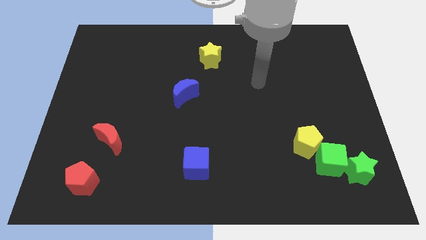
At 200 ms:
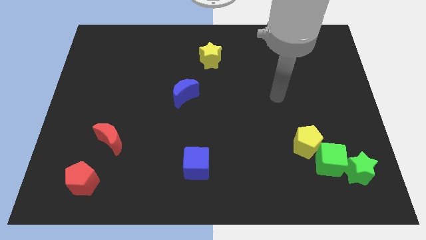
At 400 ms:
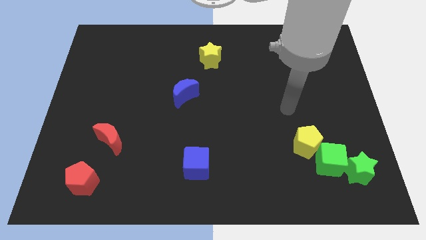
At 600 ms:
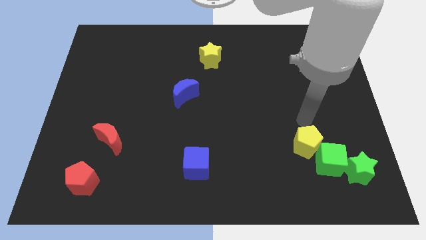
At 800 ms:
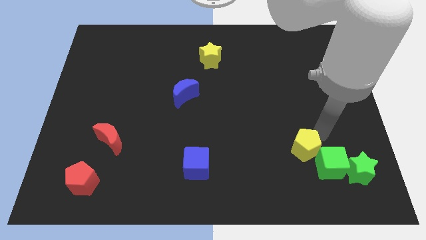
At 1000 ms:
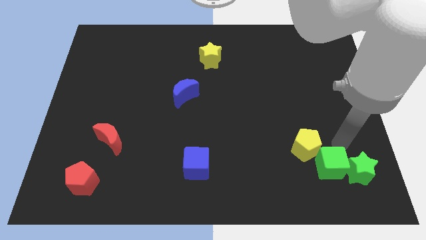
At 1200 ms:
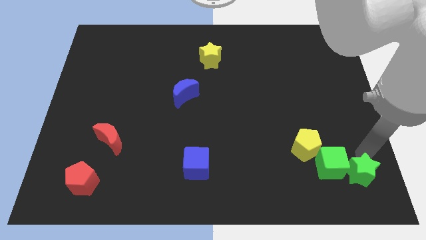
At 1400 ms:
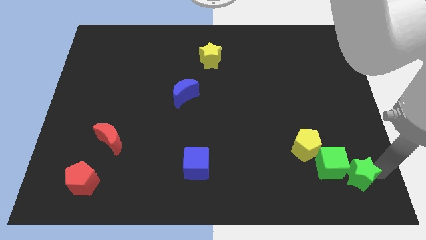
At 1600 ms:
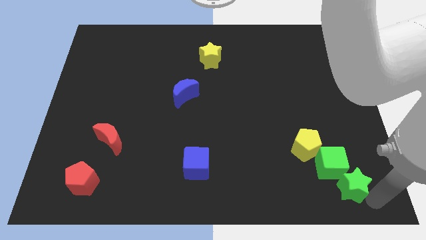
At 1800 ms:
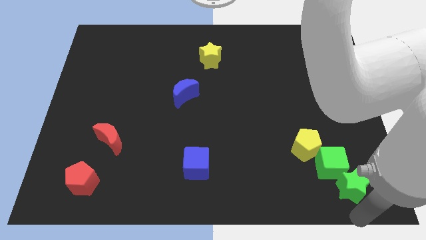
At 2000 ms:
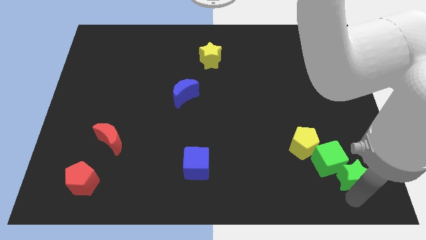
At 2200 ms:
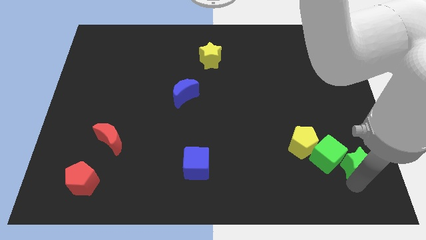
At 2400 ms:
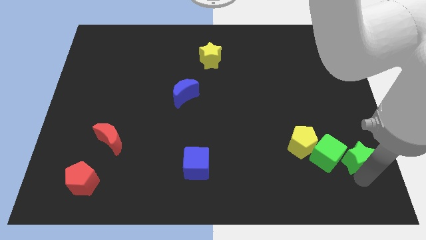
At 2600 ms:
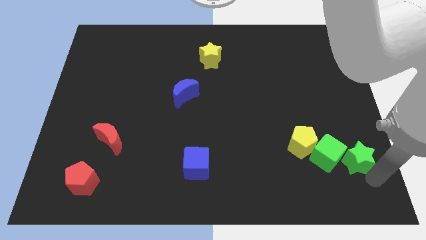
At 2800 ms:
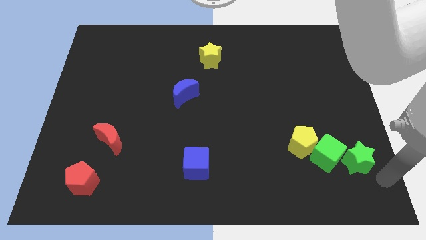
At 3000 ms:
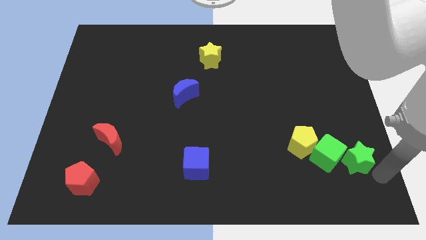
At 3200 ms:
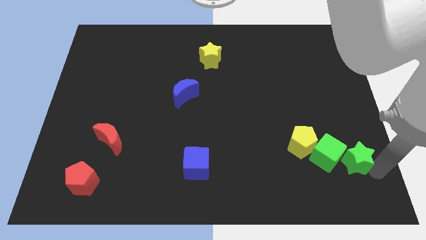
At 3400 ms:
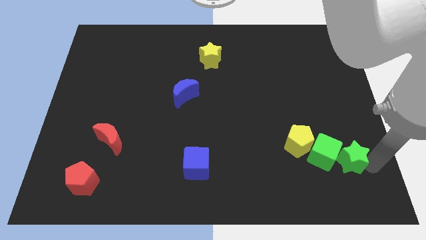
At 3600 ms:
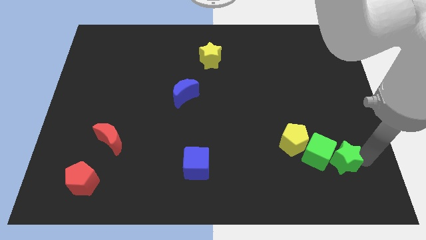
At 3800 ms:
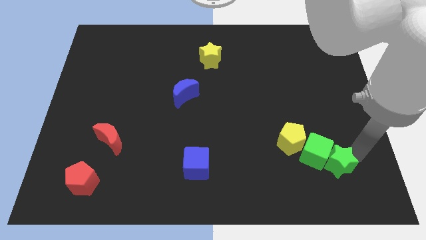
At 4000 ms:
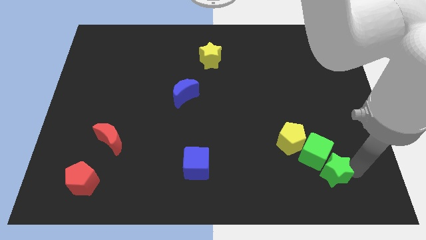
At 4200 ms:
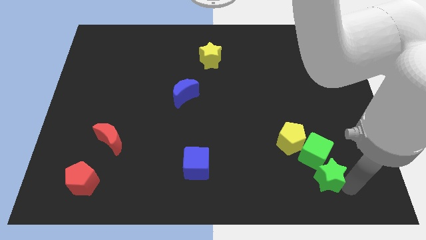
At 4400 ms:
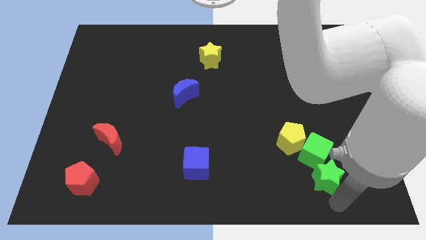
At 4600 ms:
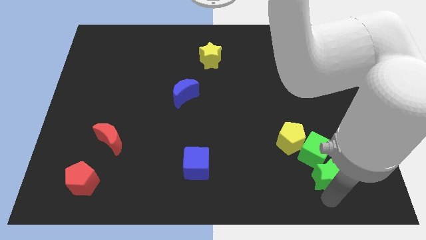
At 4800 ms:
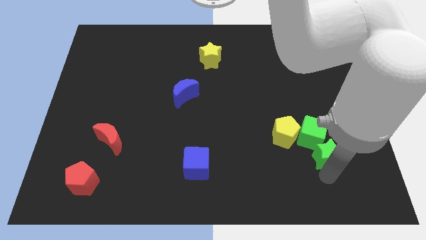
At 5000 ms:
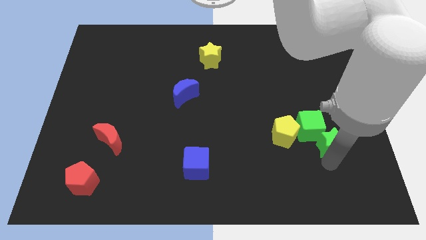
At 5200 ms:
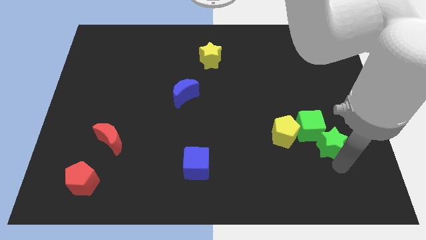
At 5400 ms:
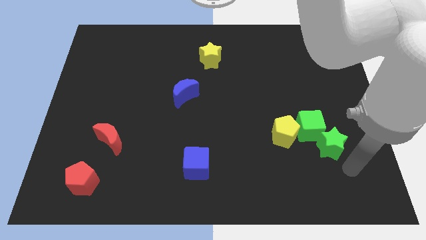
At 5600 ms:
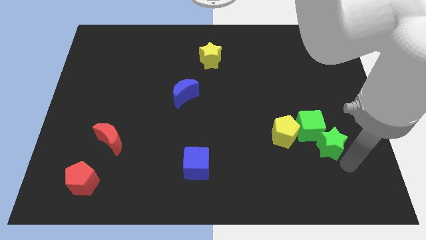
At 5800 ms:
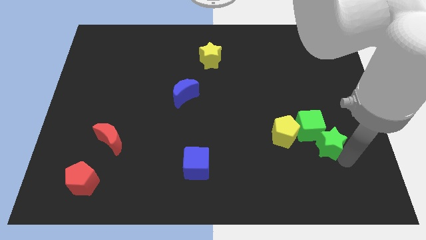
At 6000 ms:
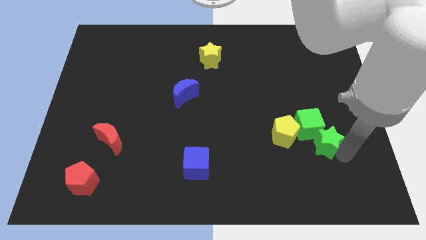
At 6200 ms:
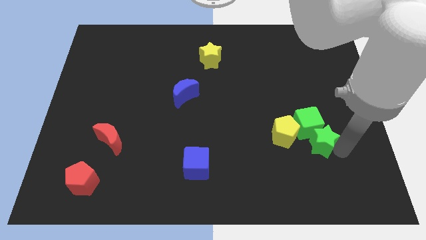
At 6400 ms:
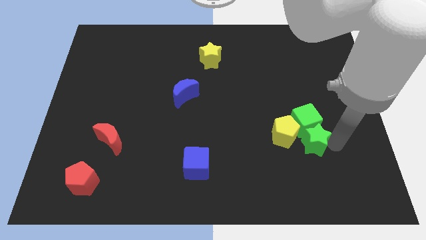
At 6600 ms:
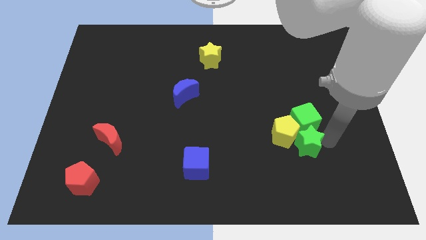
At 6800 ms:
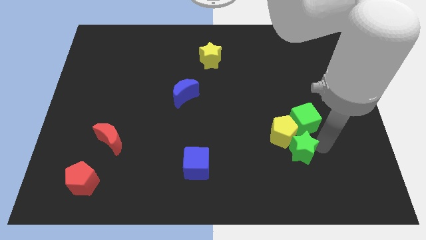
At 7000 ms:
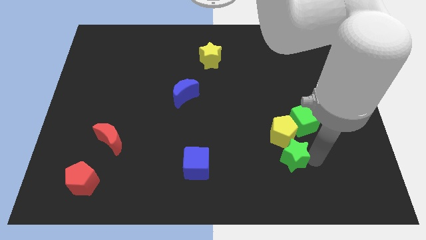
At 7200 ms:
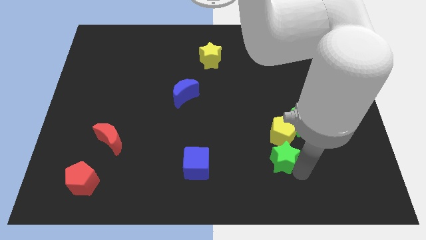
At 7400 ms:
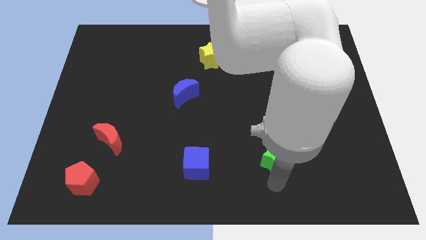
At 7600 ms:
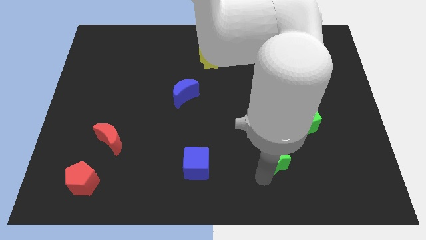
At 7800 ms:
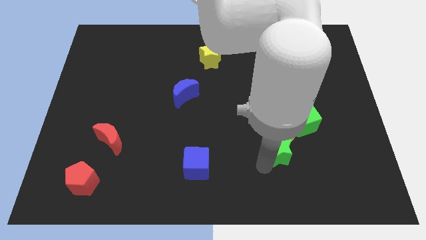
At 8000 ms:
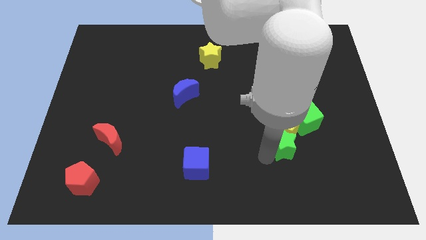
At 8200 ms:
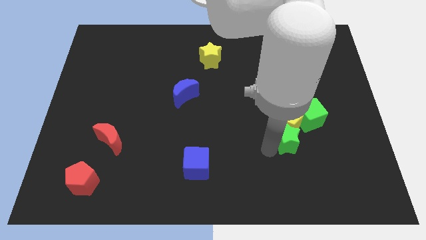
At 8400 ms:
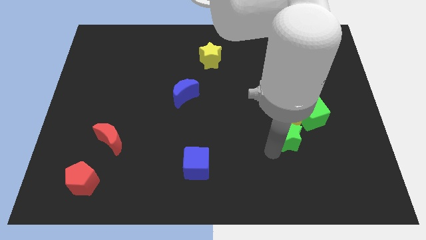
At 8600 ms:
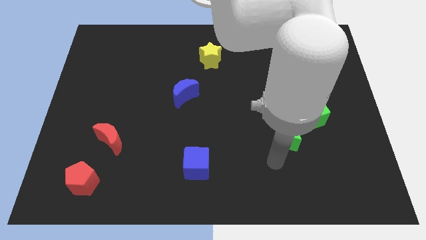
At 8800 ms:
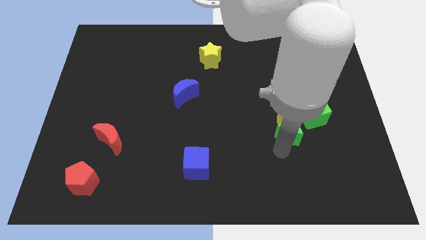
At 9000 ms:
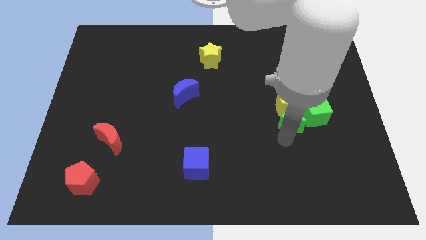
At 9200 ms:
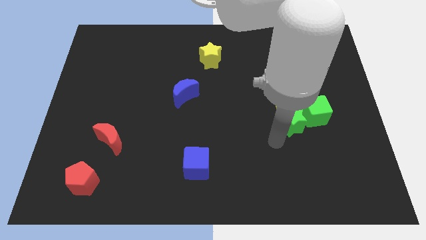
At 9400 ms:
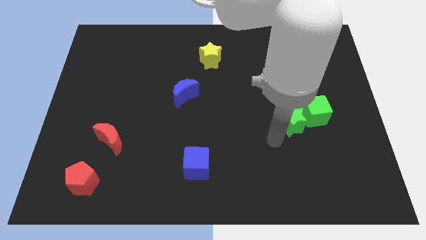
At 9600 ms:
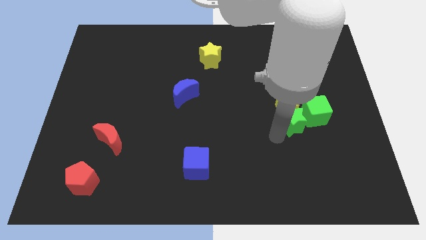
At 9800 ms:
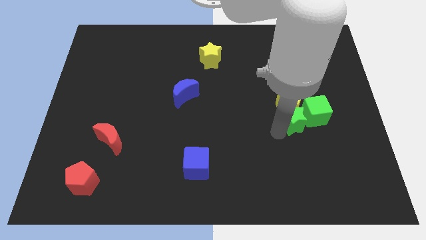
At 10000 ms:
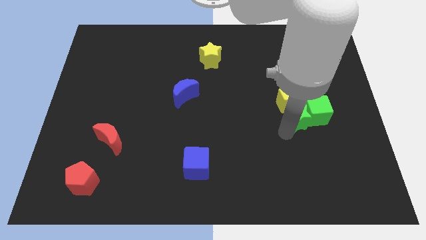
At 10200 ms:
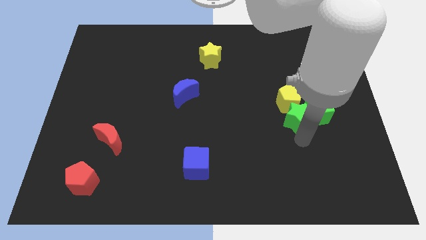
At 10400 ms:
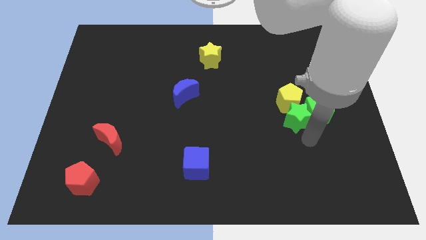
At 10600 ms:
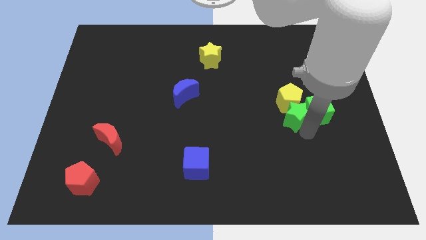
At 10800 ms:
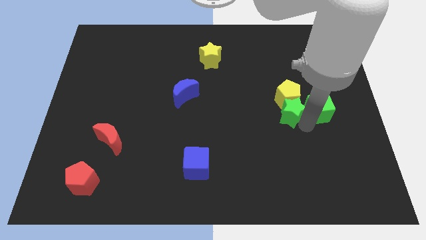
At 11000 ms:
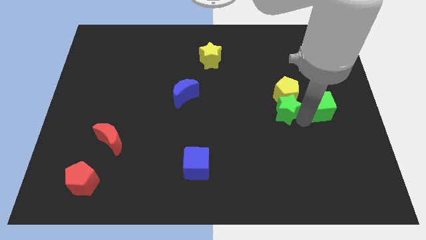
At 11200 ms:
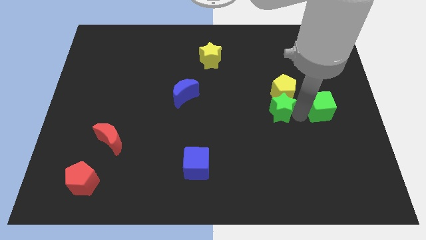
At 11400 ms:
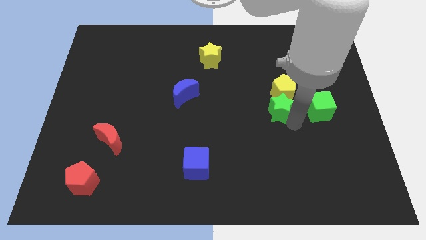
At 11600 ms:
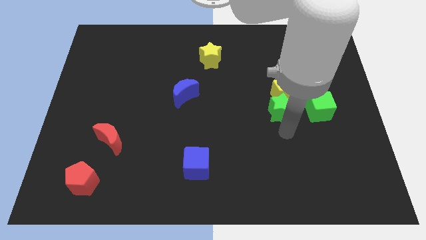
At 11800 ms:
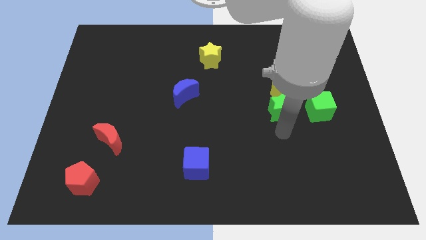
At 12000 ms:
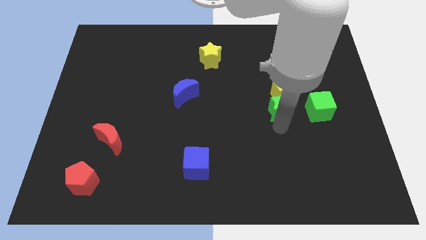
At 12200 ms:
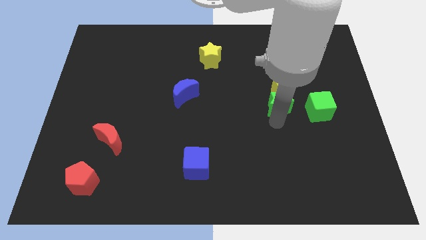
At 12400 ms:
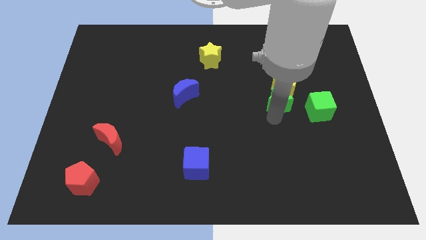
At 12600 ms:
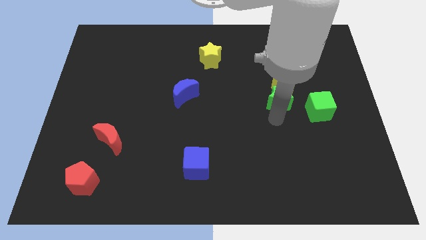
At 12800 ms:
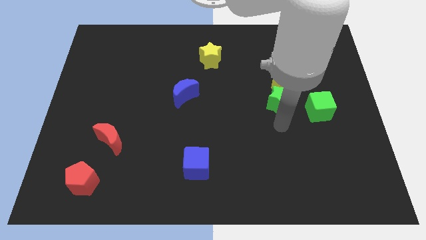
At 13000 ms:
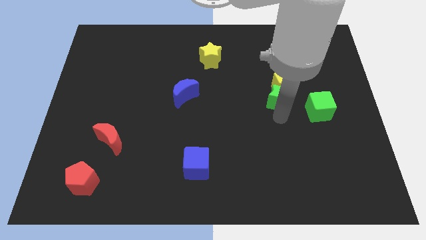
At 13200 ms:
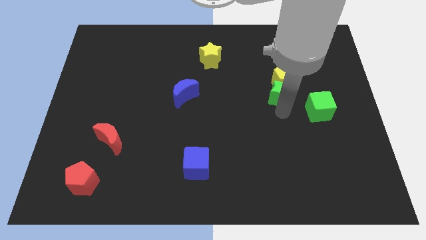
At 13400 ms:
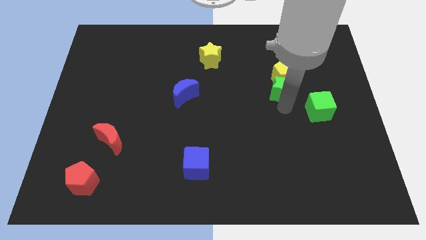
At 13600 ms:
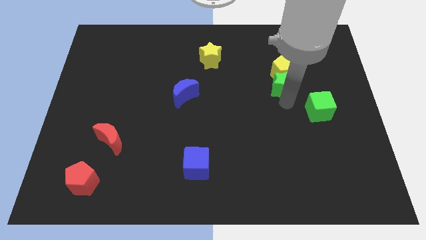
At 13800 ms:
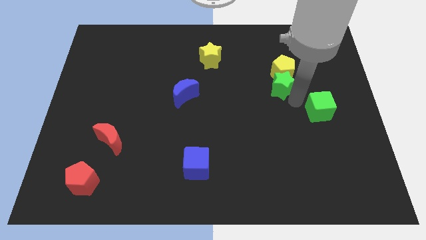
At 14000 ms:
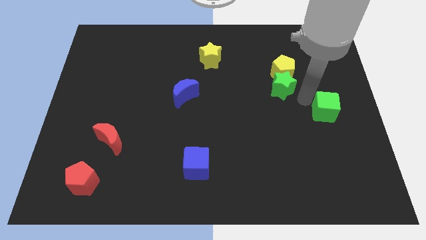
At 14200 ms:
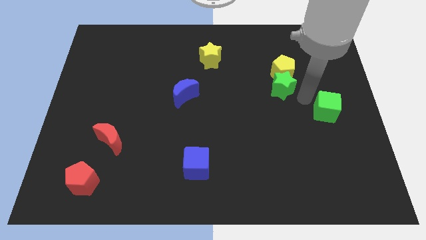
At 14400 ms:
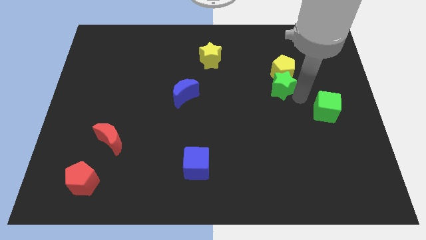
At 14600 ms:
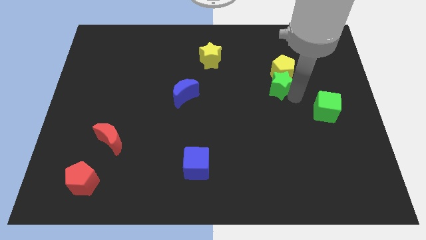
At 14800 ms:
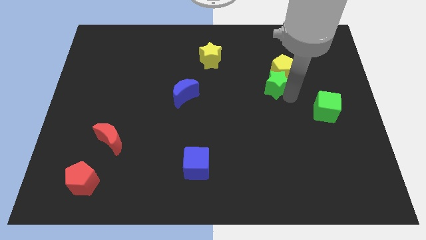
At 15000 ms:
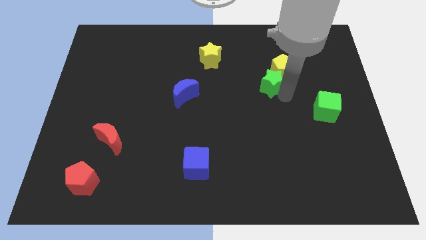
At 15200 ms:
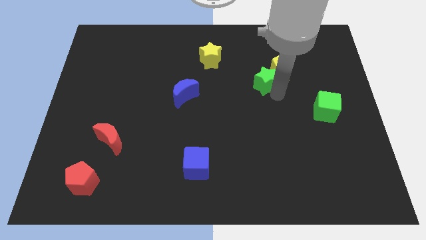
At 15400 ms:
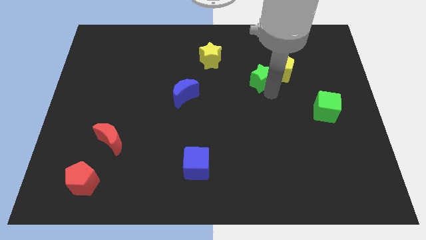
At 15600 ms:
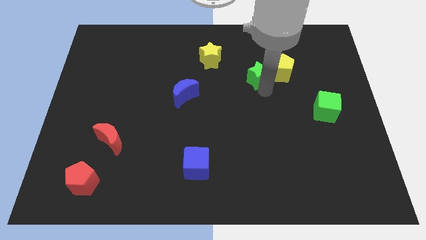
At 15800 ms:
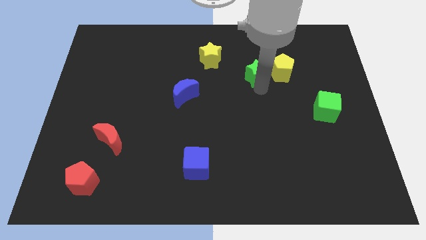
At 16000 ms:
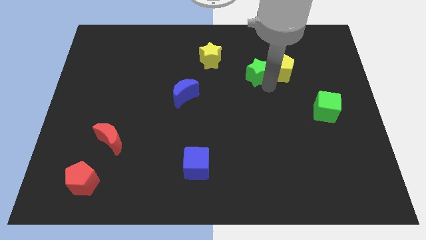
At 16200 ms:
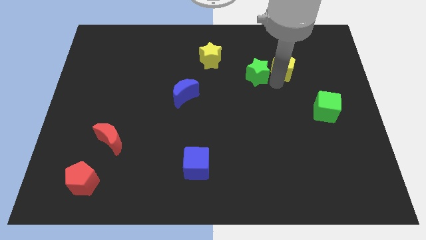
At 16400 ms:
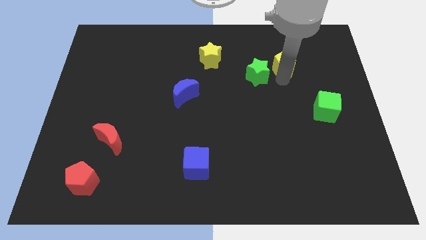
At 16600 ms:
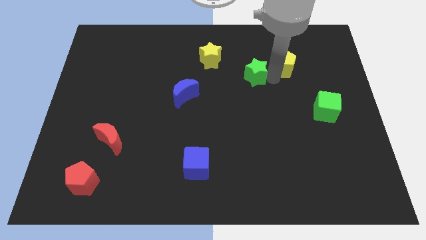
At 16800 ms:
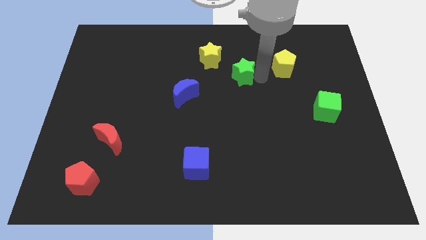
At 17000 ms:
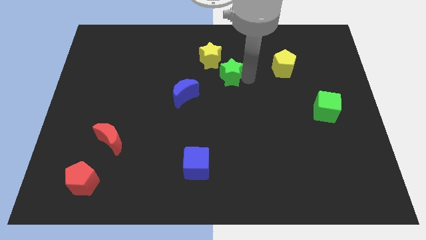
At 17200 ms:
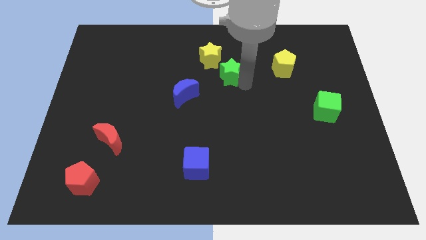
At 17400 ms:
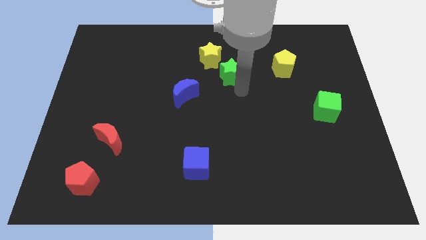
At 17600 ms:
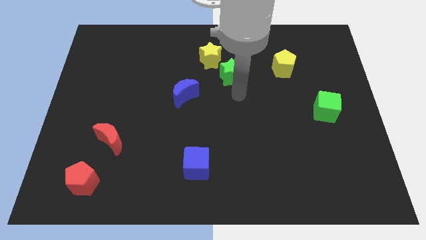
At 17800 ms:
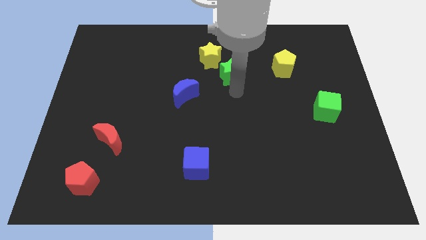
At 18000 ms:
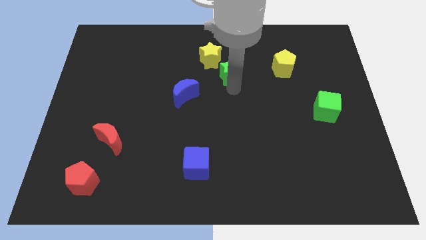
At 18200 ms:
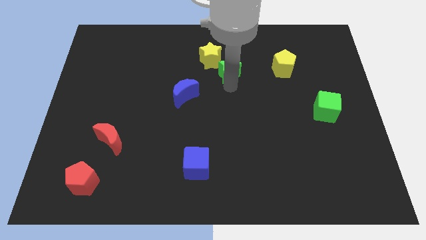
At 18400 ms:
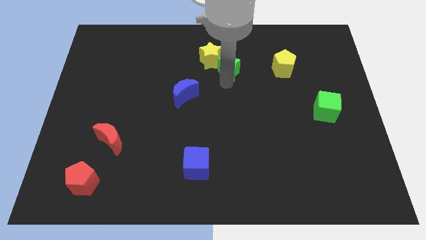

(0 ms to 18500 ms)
push the green star towards the yellow star
